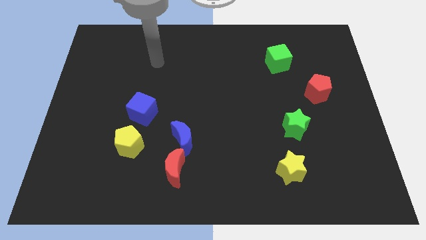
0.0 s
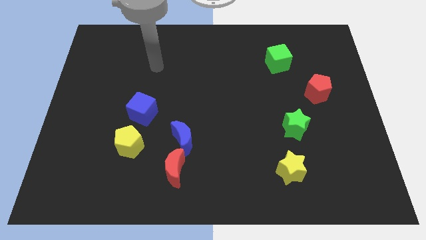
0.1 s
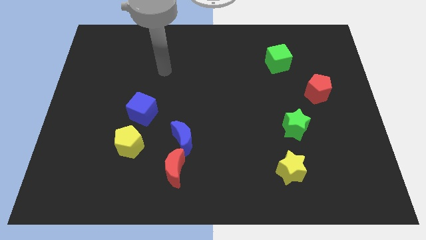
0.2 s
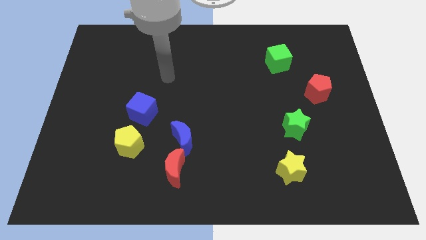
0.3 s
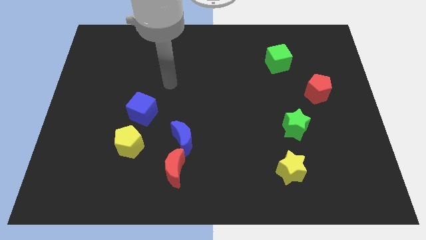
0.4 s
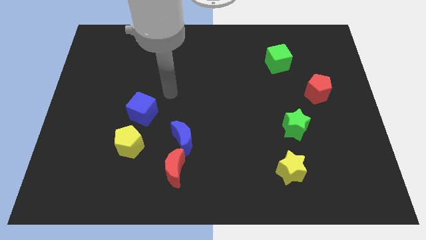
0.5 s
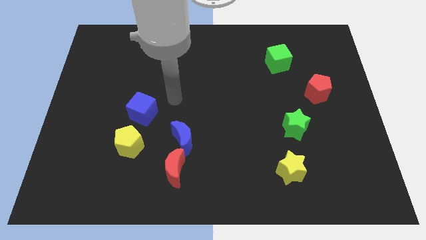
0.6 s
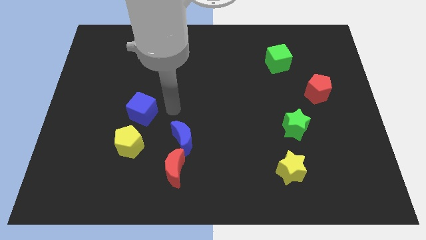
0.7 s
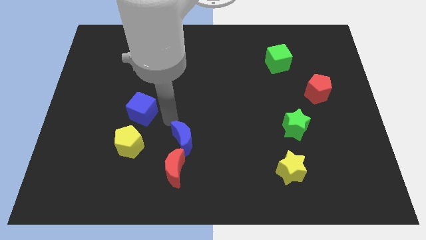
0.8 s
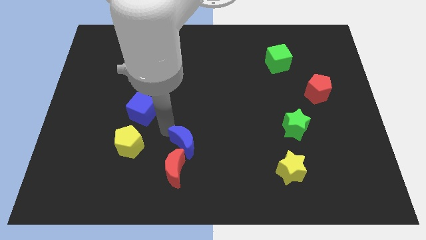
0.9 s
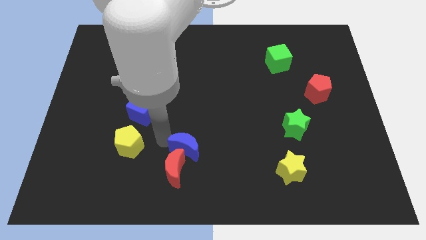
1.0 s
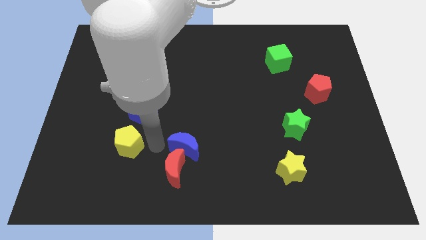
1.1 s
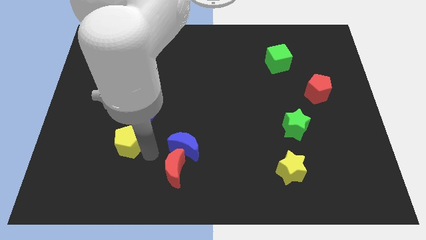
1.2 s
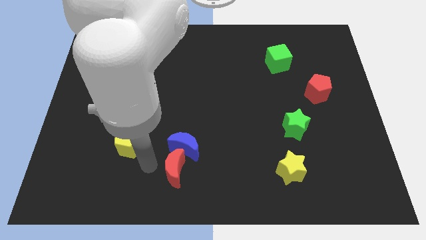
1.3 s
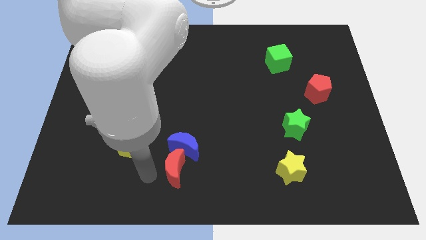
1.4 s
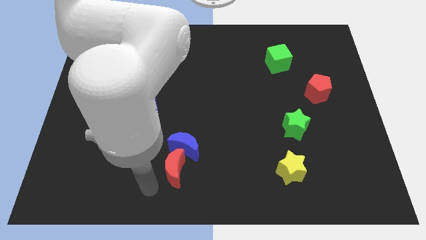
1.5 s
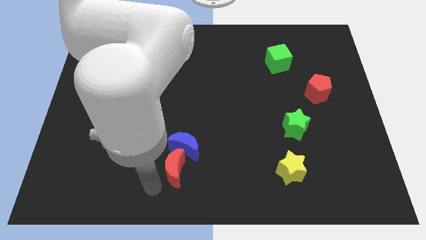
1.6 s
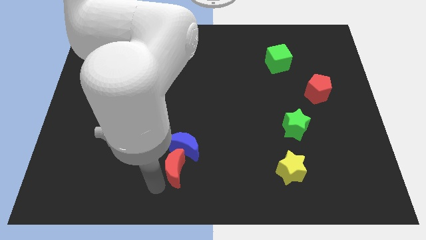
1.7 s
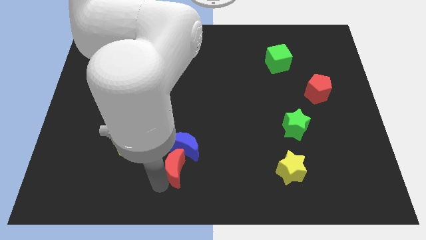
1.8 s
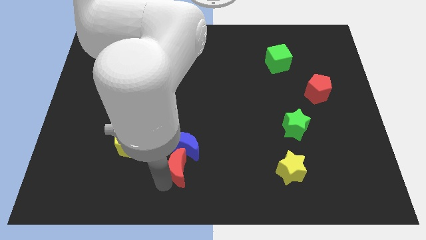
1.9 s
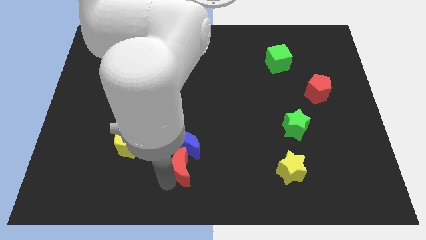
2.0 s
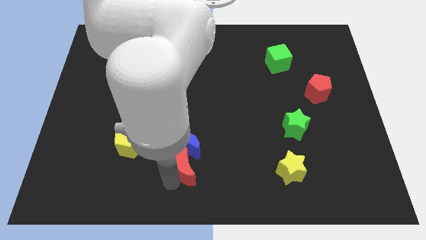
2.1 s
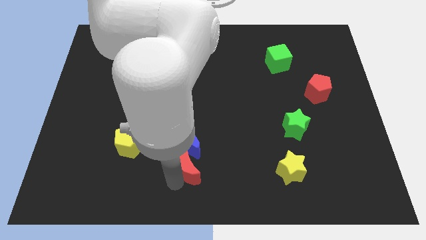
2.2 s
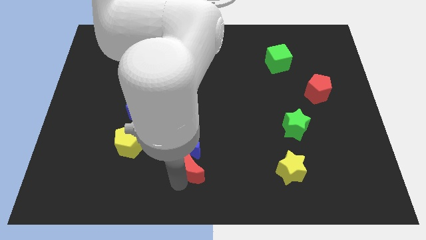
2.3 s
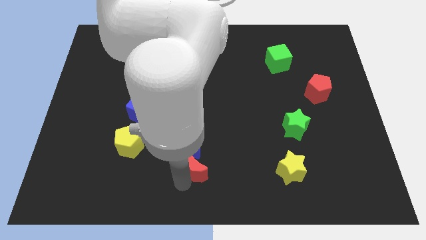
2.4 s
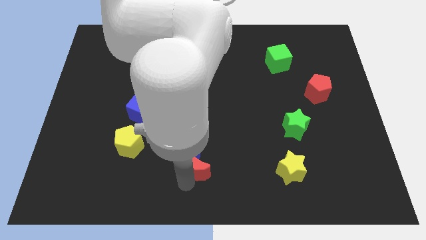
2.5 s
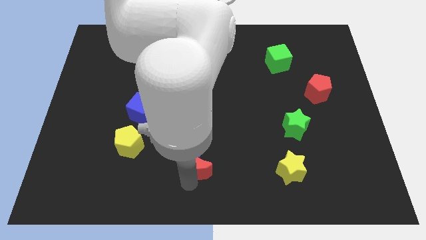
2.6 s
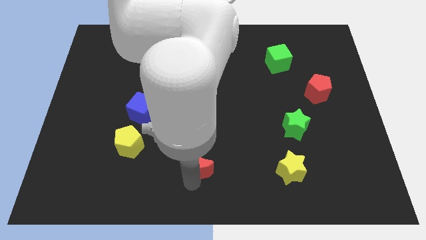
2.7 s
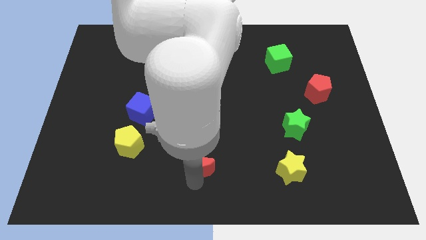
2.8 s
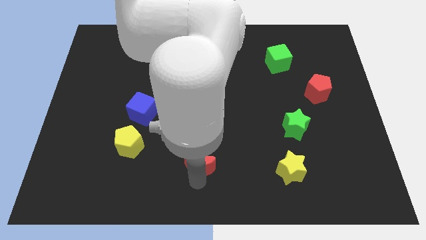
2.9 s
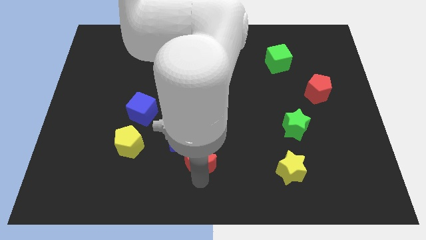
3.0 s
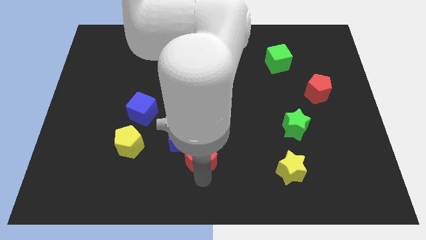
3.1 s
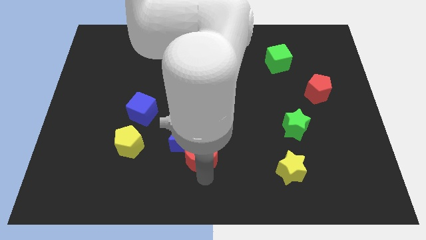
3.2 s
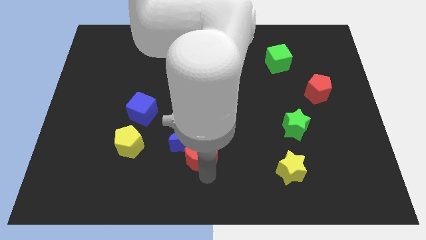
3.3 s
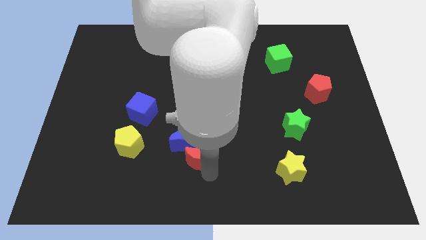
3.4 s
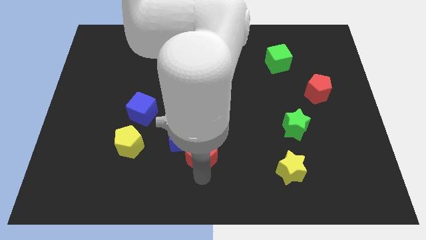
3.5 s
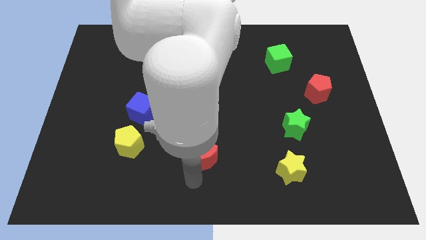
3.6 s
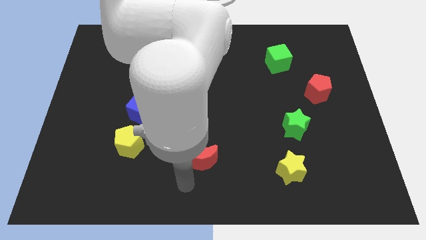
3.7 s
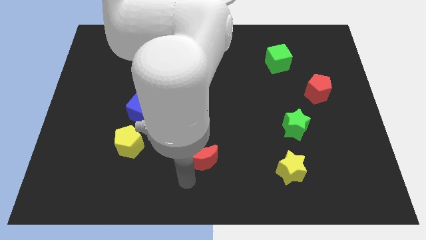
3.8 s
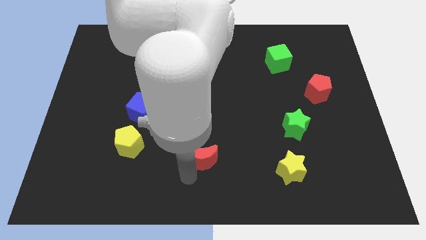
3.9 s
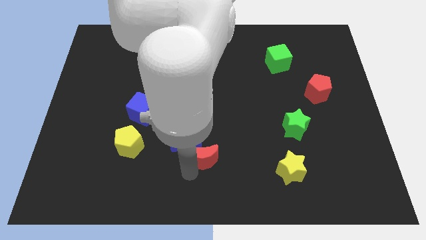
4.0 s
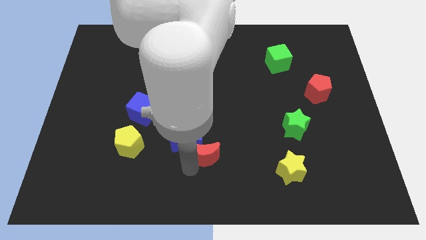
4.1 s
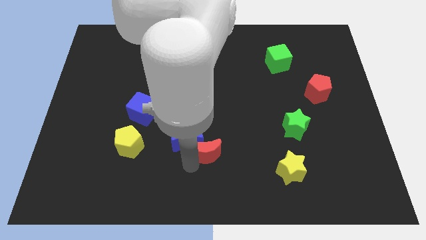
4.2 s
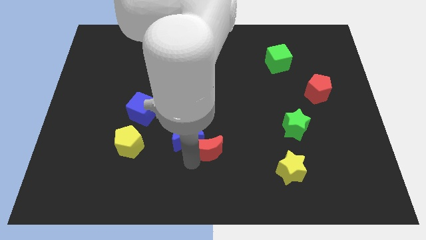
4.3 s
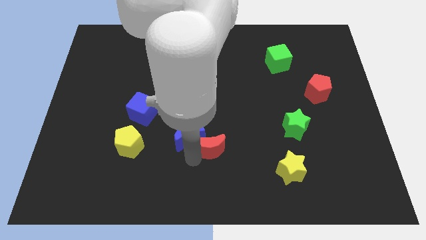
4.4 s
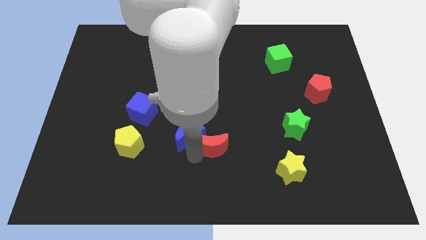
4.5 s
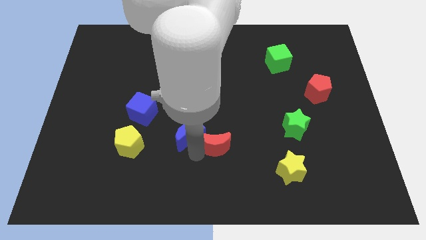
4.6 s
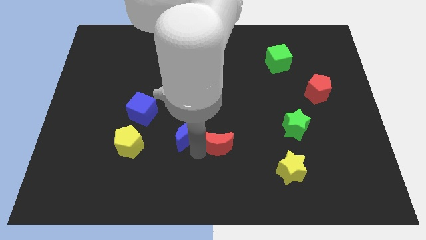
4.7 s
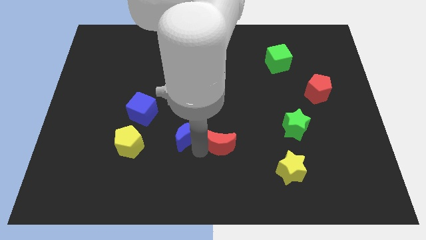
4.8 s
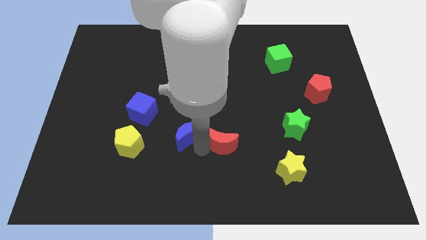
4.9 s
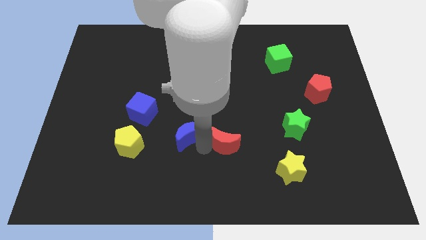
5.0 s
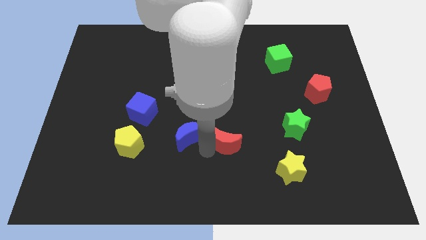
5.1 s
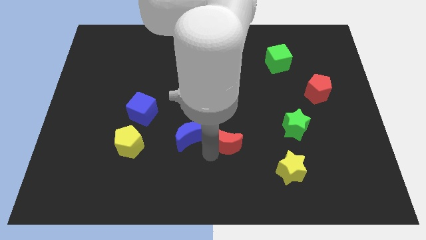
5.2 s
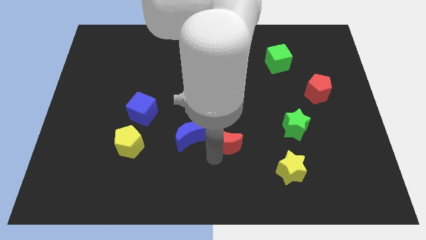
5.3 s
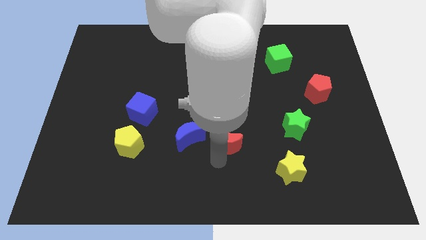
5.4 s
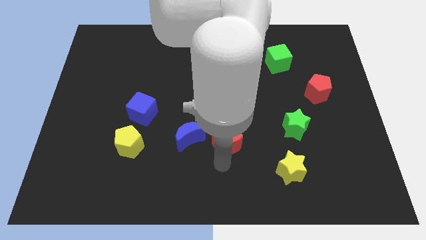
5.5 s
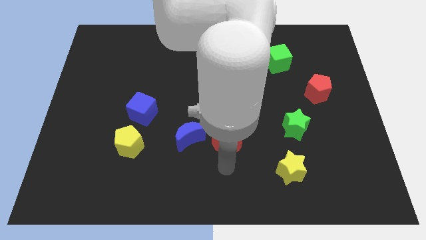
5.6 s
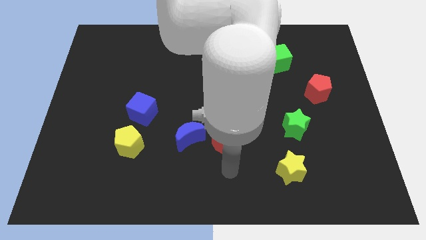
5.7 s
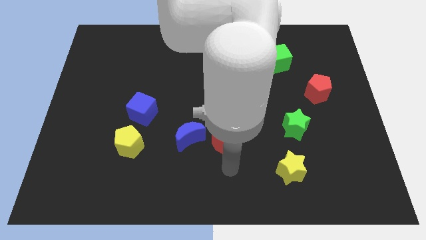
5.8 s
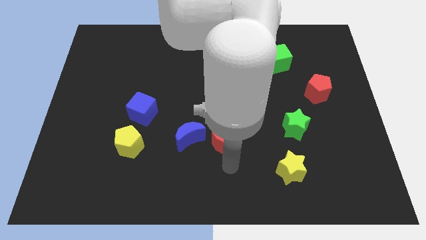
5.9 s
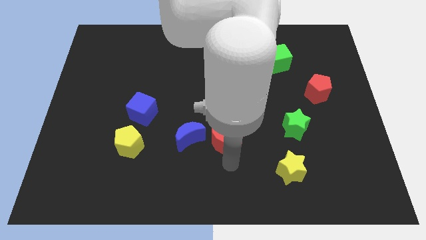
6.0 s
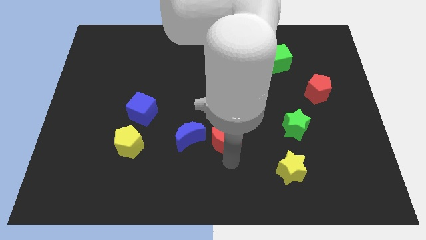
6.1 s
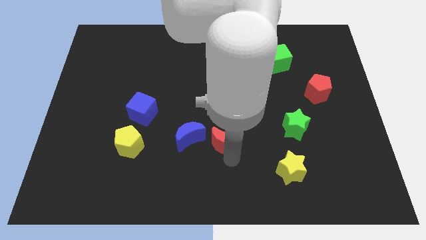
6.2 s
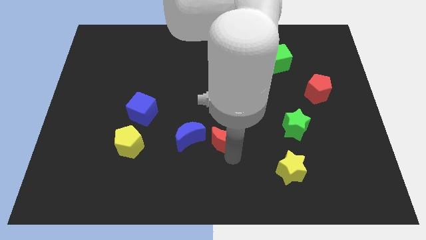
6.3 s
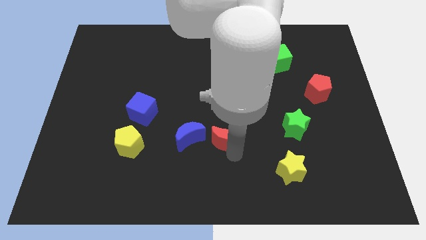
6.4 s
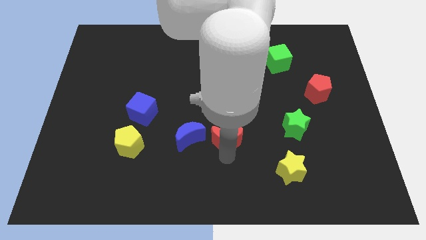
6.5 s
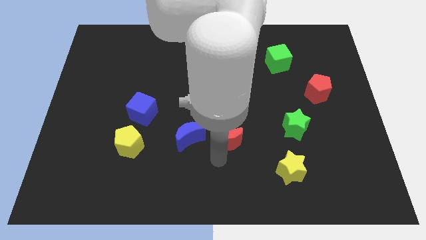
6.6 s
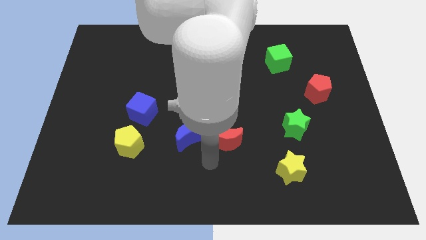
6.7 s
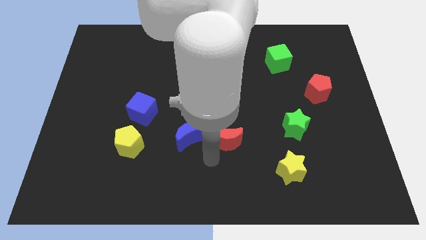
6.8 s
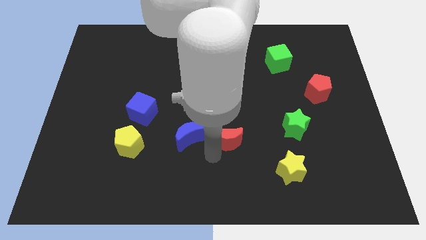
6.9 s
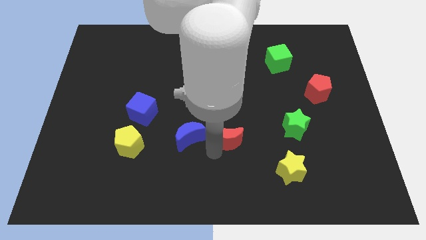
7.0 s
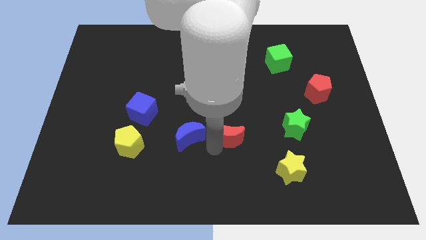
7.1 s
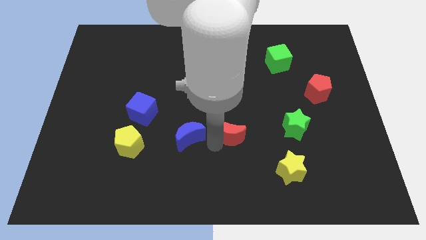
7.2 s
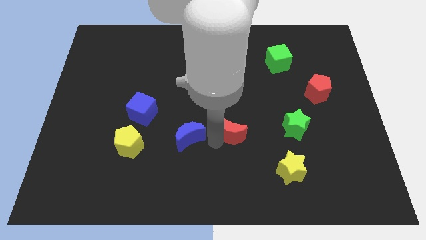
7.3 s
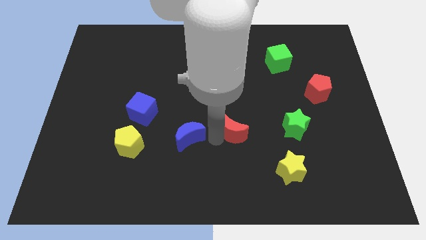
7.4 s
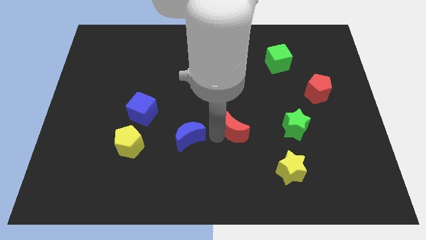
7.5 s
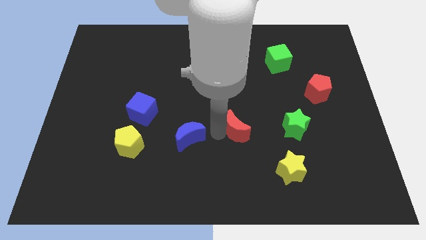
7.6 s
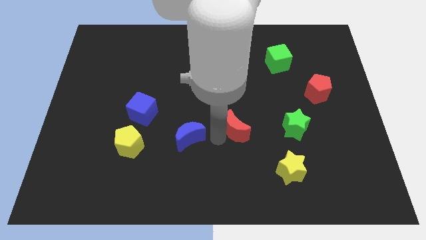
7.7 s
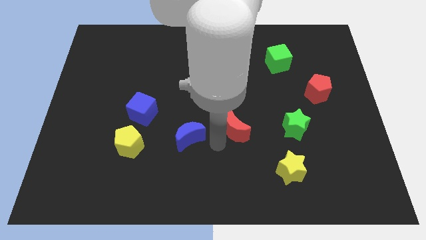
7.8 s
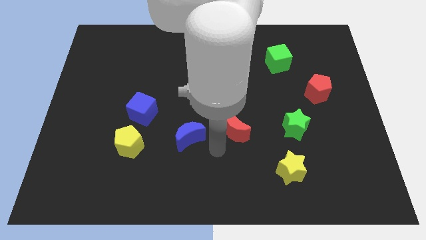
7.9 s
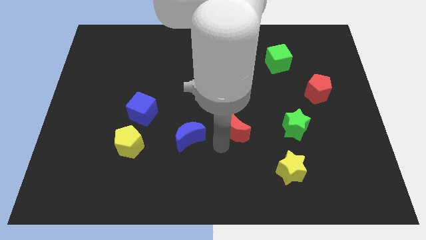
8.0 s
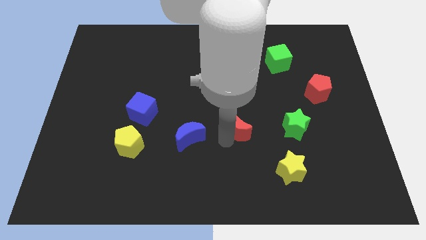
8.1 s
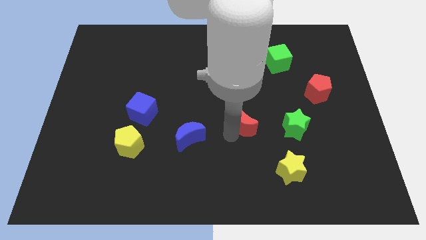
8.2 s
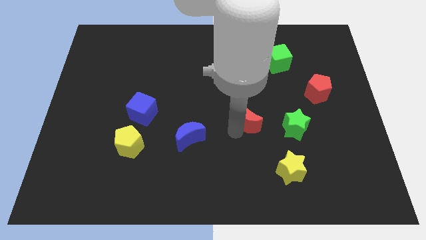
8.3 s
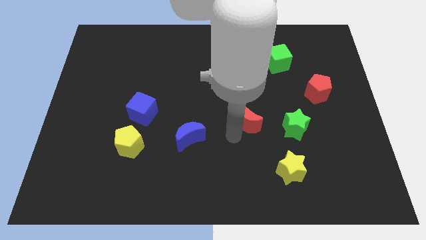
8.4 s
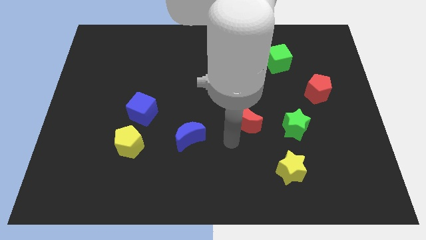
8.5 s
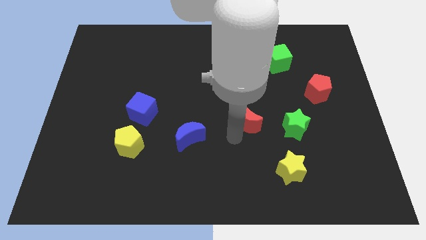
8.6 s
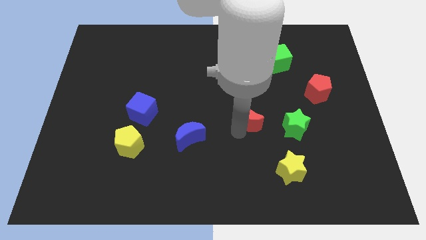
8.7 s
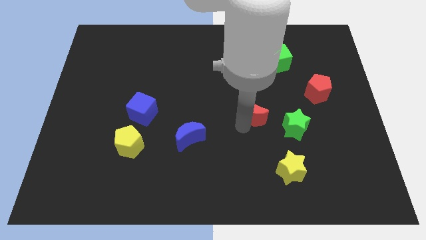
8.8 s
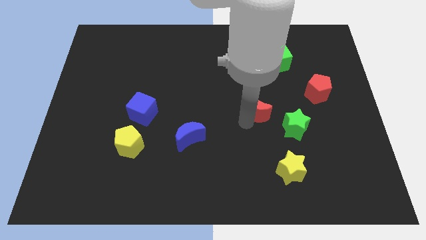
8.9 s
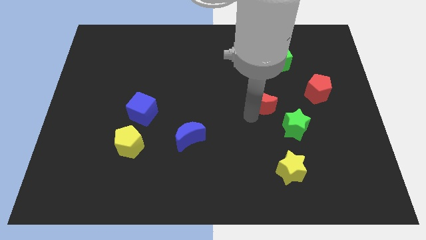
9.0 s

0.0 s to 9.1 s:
move the red moon left of the red pentagon
